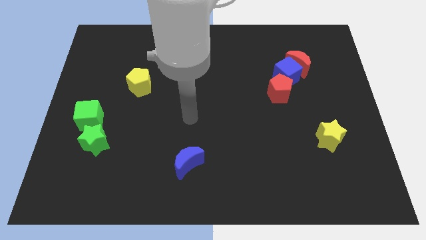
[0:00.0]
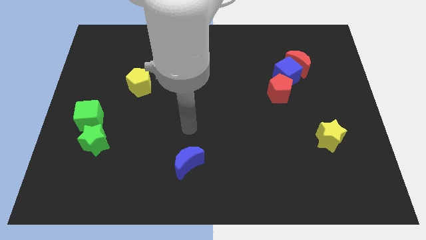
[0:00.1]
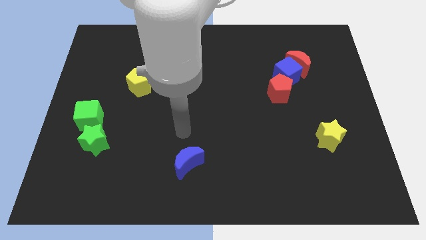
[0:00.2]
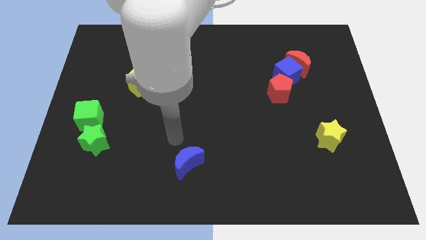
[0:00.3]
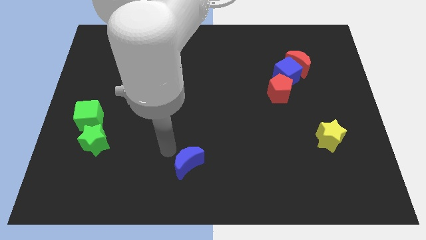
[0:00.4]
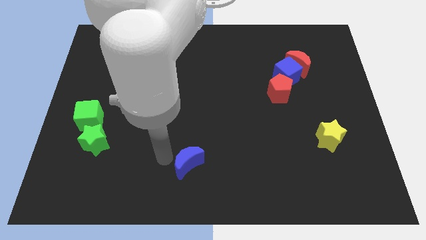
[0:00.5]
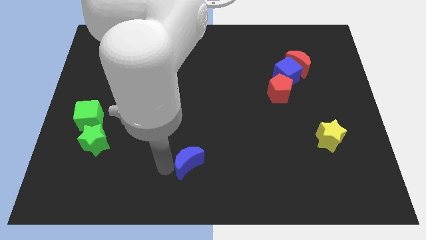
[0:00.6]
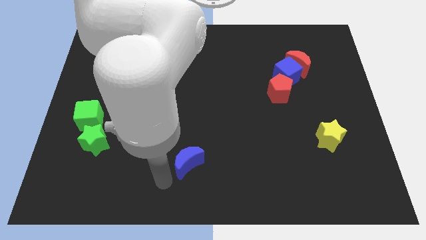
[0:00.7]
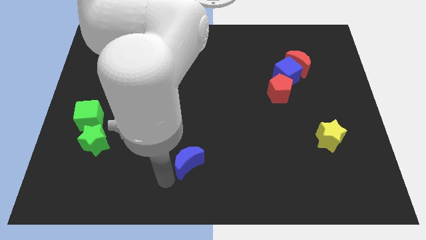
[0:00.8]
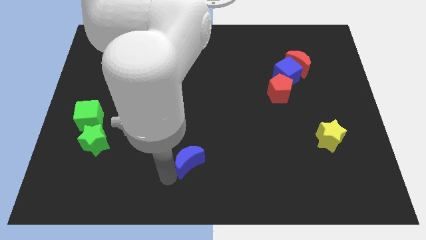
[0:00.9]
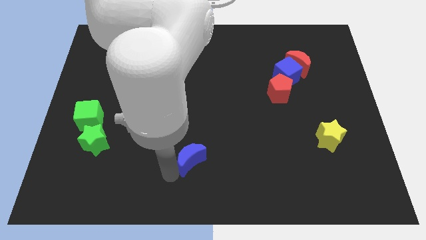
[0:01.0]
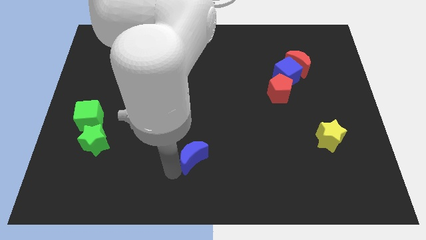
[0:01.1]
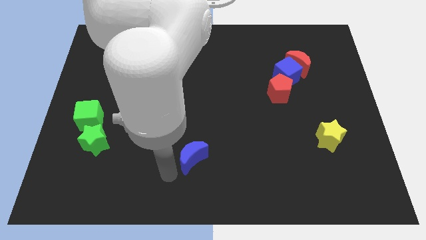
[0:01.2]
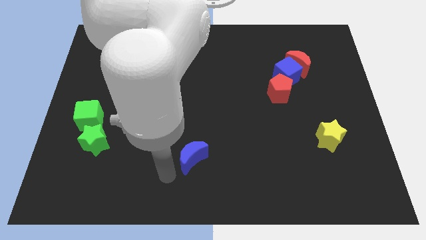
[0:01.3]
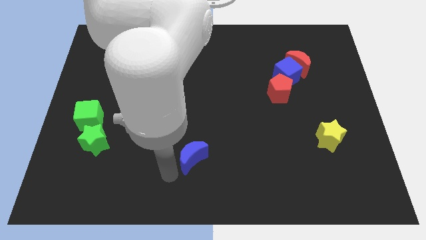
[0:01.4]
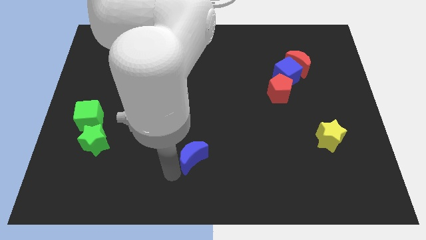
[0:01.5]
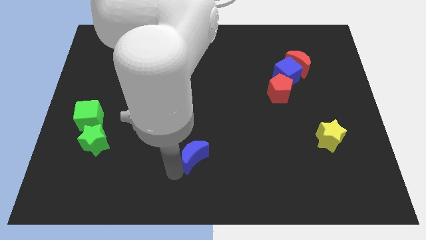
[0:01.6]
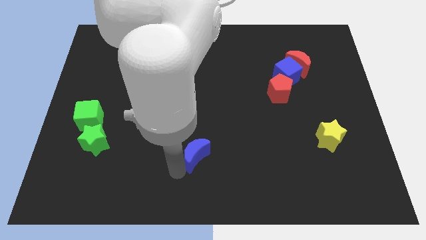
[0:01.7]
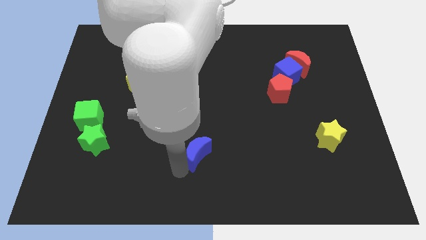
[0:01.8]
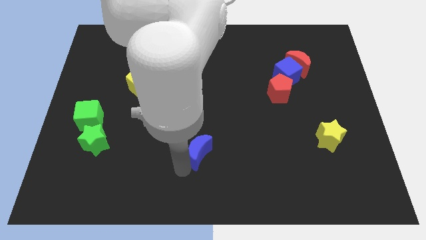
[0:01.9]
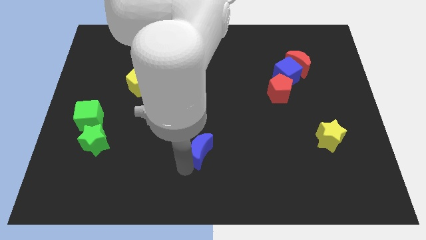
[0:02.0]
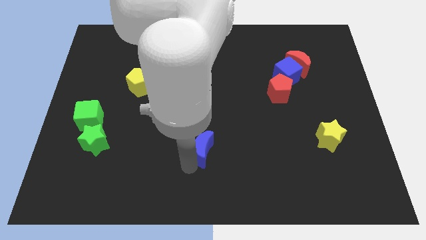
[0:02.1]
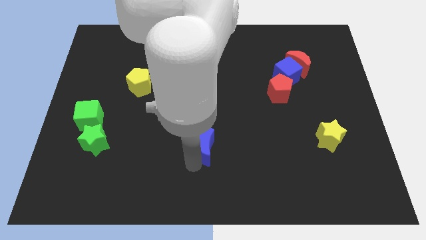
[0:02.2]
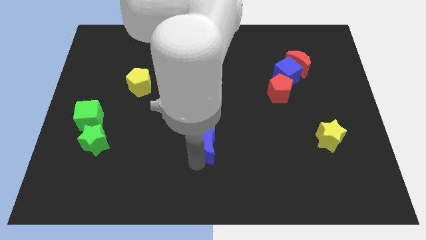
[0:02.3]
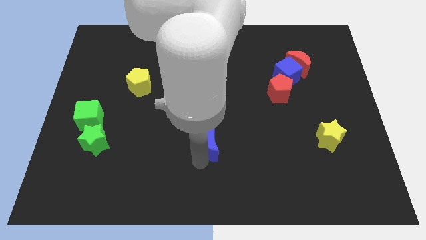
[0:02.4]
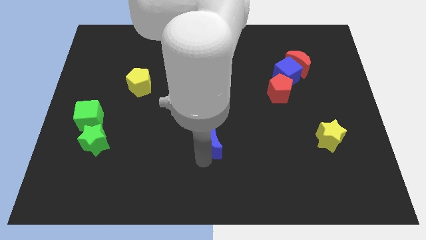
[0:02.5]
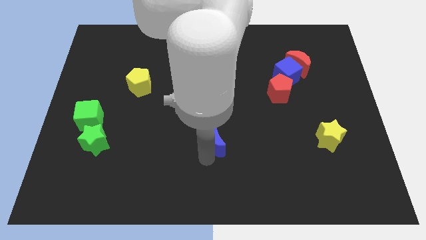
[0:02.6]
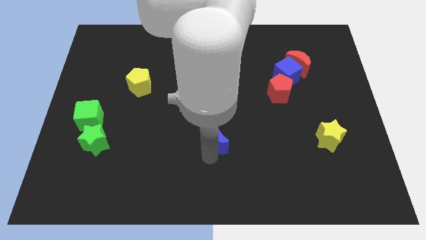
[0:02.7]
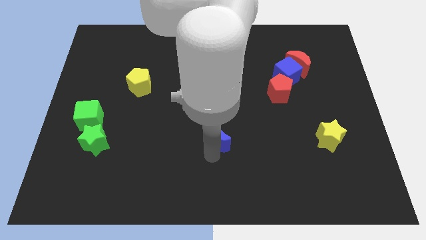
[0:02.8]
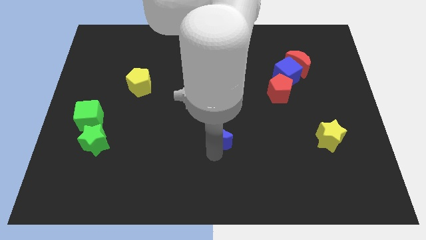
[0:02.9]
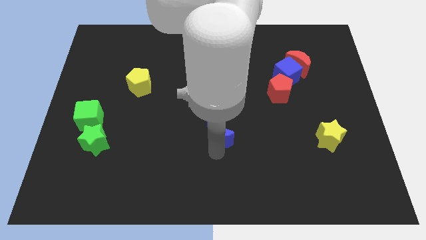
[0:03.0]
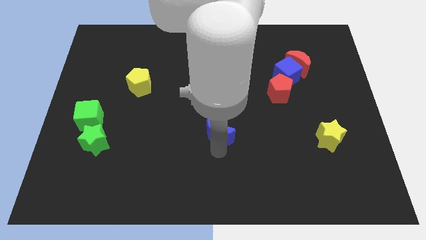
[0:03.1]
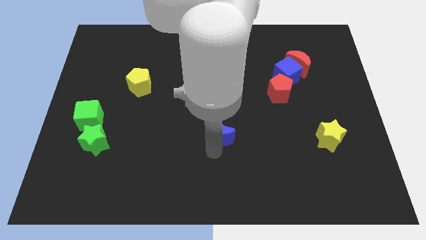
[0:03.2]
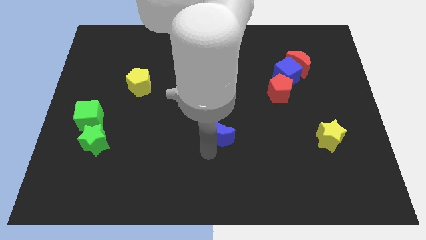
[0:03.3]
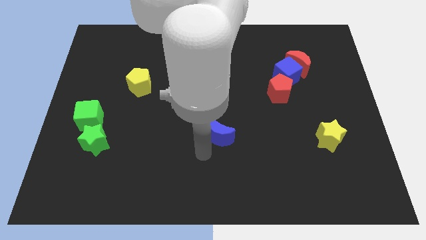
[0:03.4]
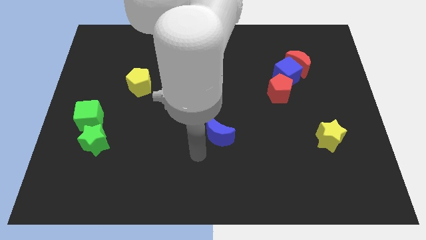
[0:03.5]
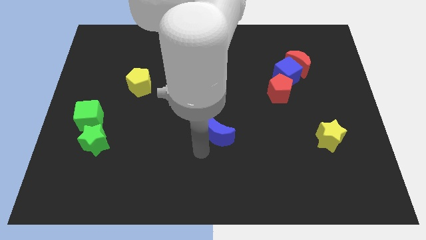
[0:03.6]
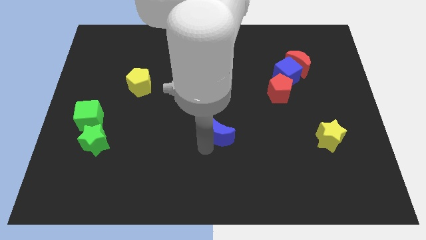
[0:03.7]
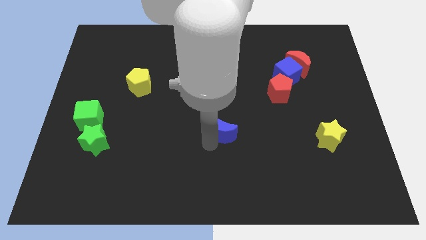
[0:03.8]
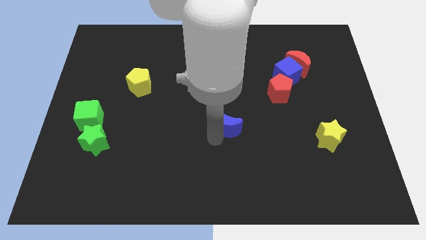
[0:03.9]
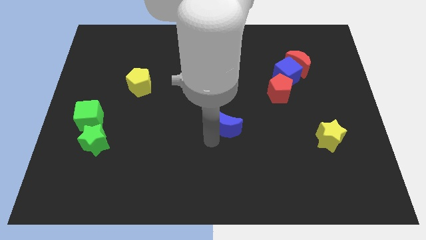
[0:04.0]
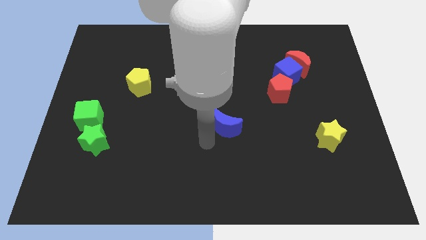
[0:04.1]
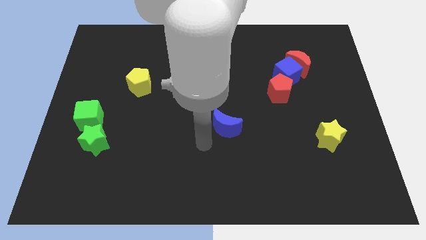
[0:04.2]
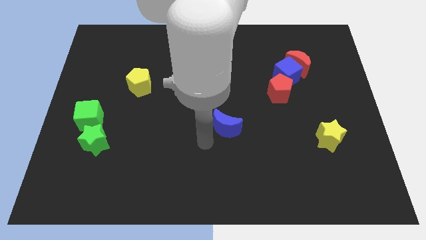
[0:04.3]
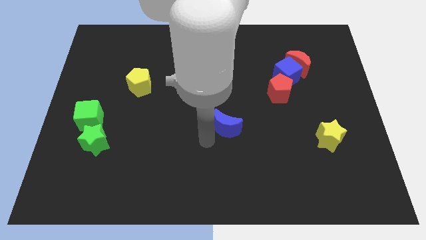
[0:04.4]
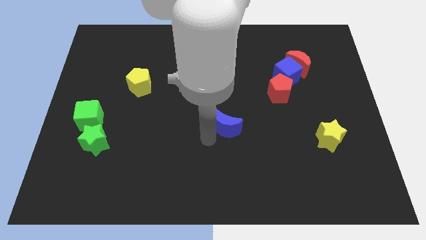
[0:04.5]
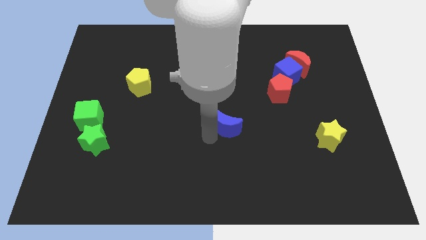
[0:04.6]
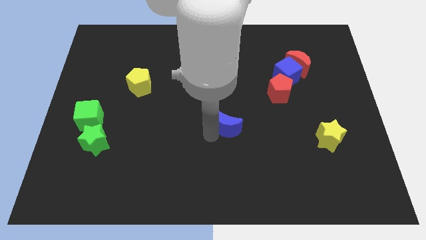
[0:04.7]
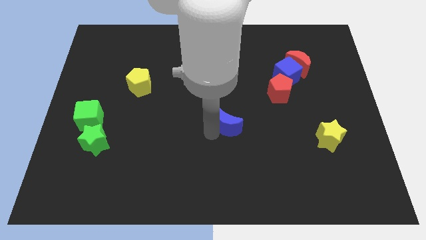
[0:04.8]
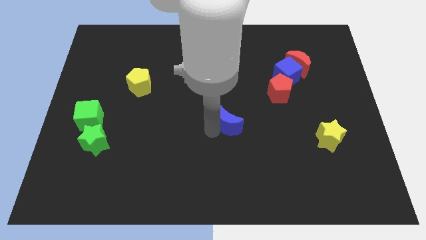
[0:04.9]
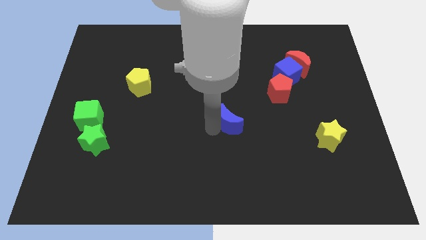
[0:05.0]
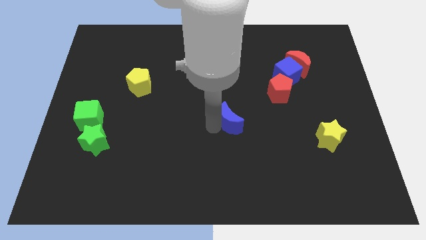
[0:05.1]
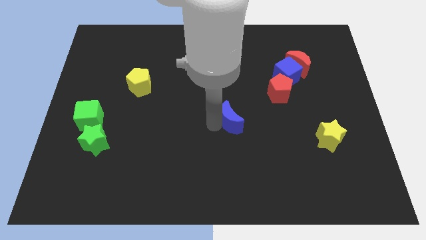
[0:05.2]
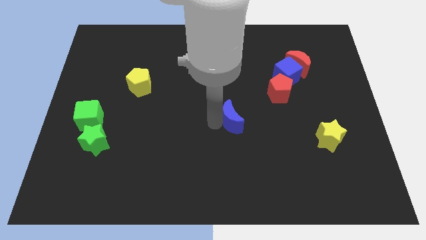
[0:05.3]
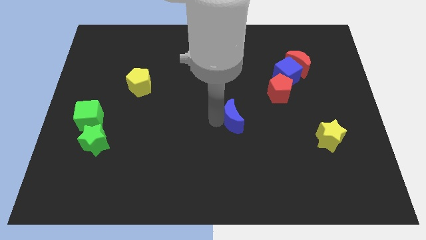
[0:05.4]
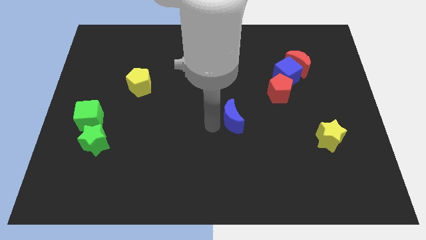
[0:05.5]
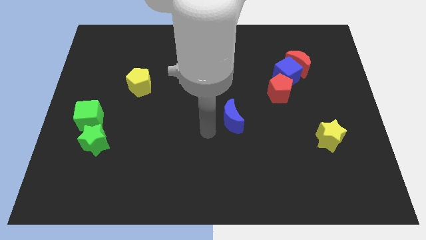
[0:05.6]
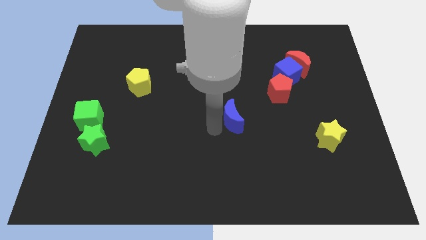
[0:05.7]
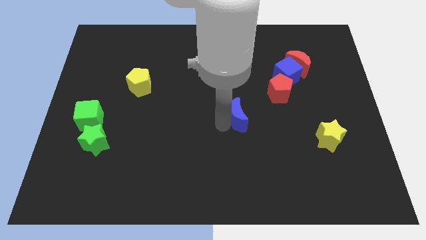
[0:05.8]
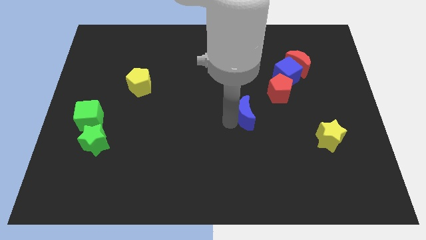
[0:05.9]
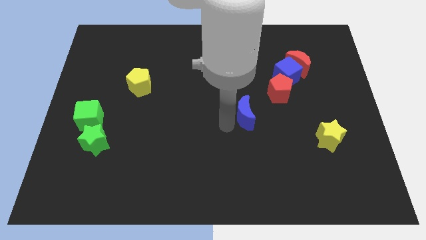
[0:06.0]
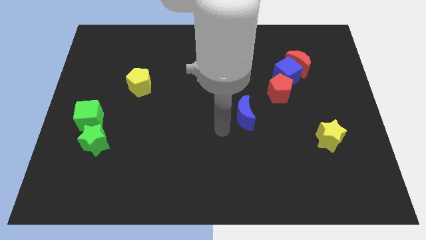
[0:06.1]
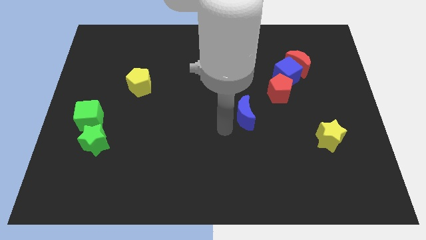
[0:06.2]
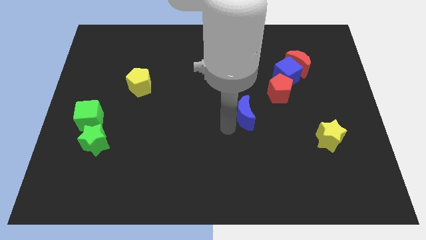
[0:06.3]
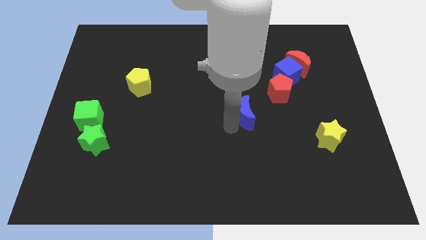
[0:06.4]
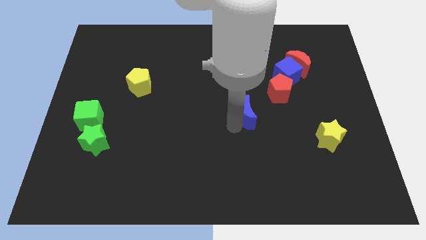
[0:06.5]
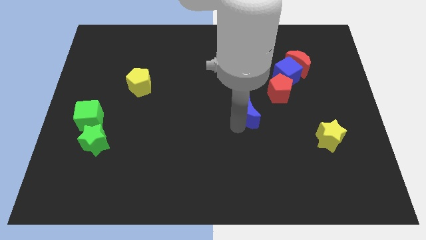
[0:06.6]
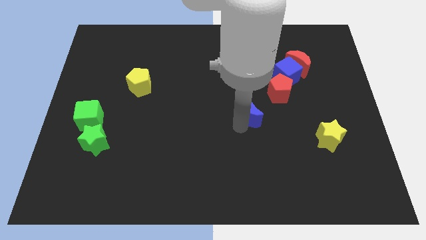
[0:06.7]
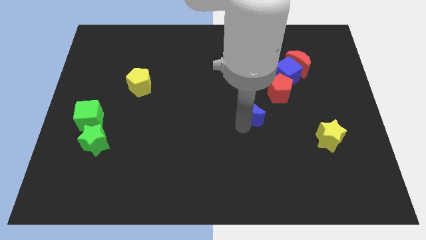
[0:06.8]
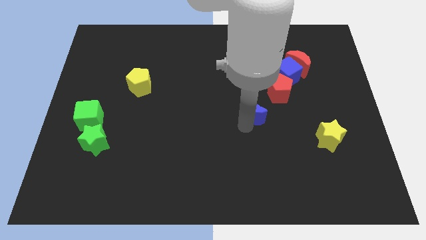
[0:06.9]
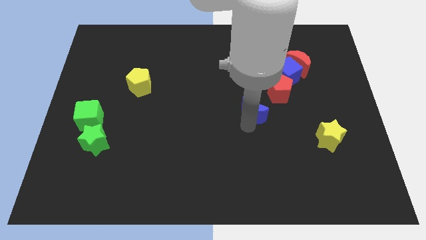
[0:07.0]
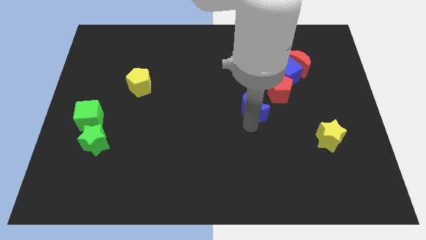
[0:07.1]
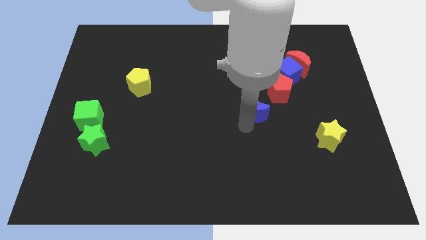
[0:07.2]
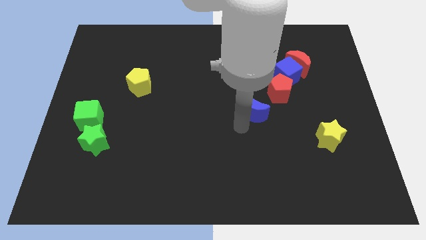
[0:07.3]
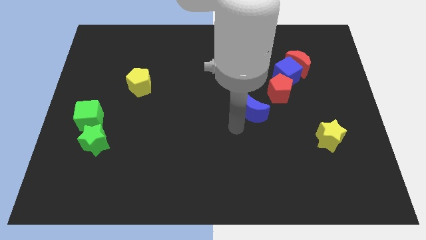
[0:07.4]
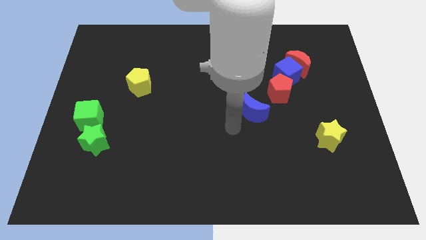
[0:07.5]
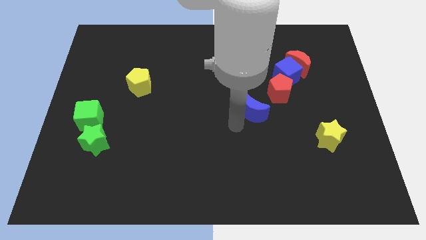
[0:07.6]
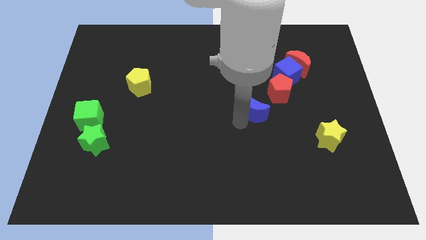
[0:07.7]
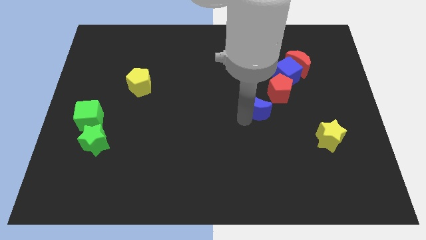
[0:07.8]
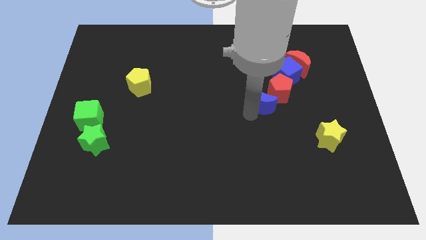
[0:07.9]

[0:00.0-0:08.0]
push the blue moon next to the red pentagon
